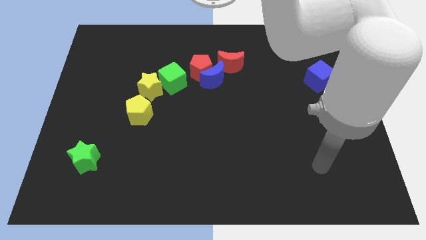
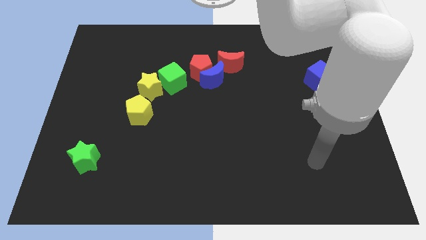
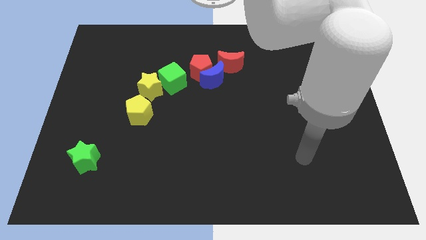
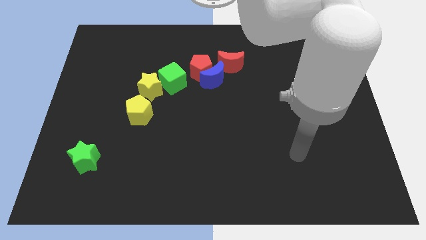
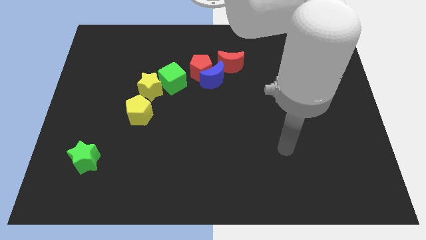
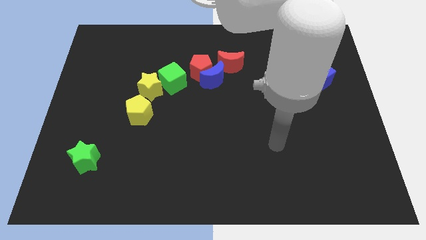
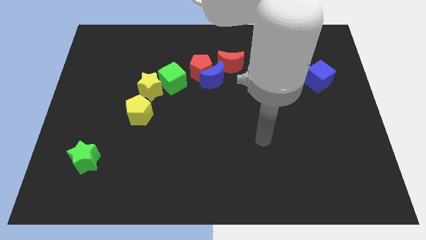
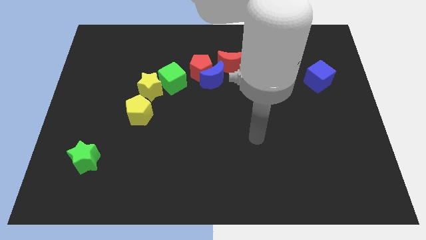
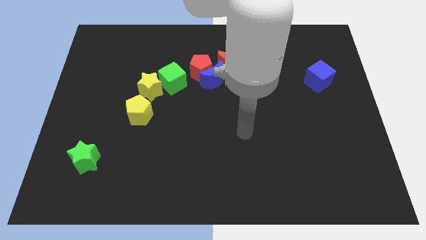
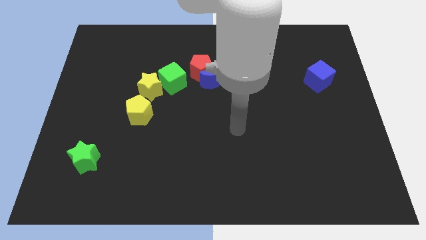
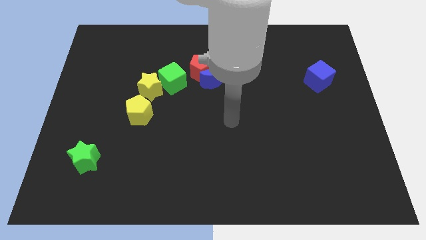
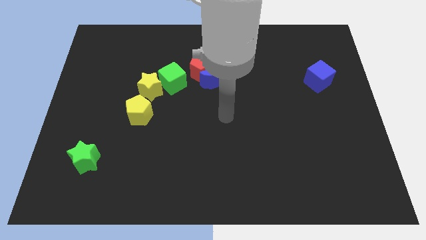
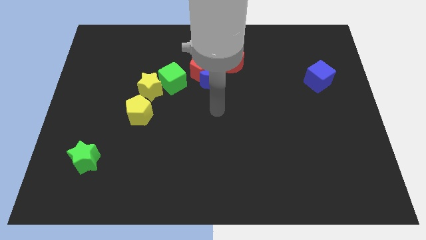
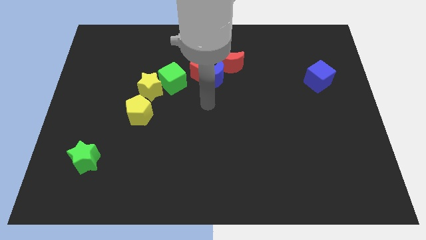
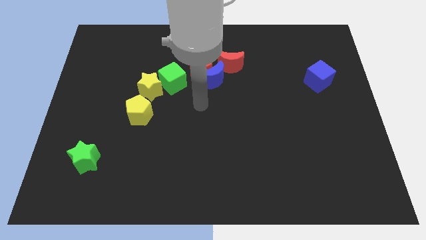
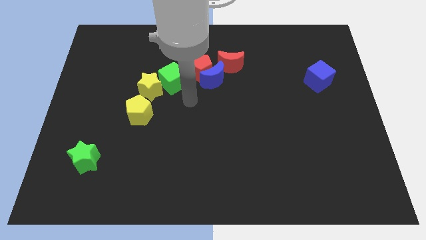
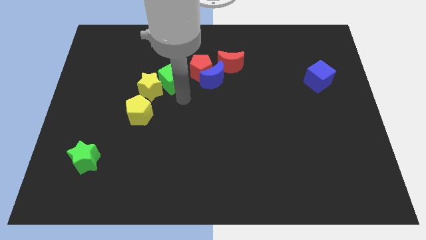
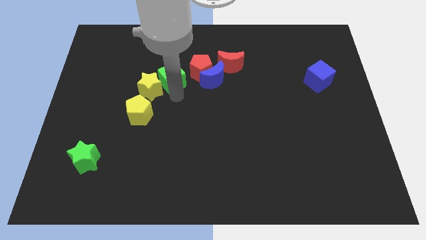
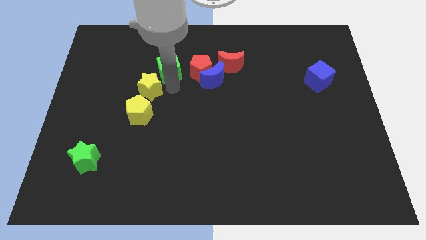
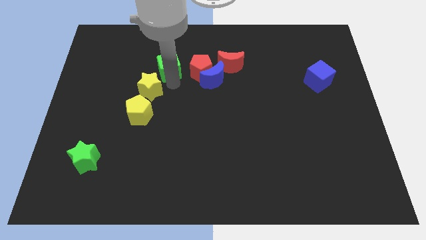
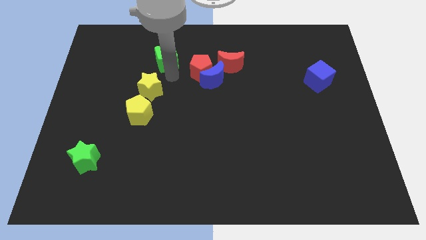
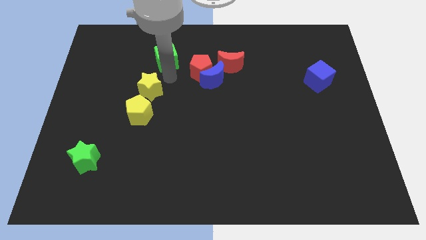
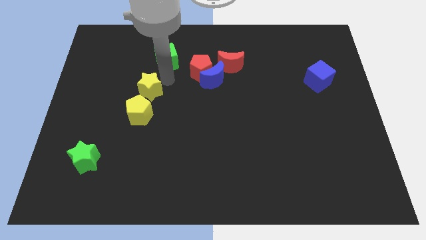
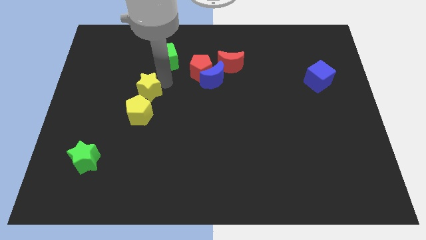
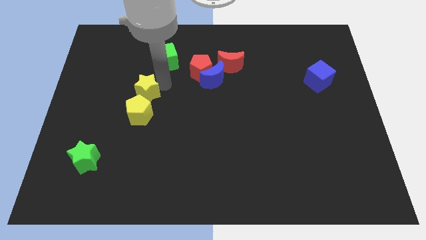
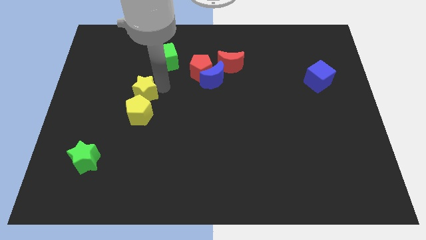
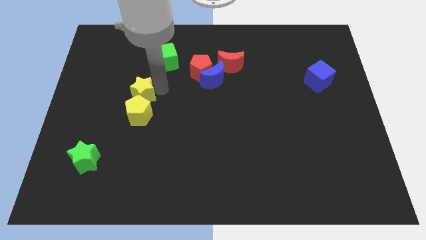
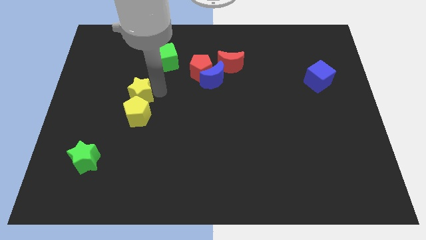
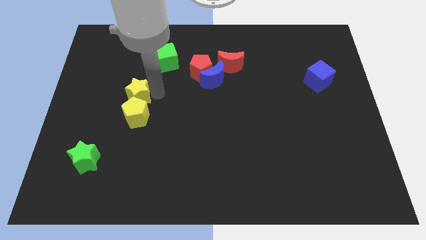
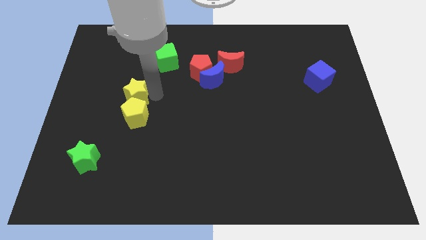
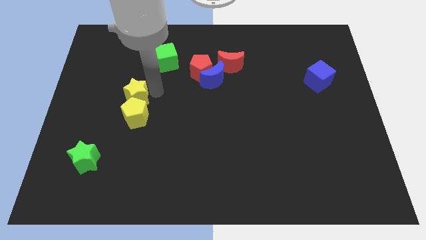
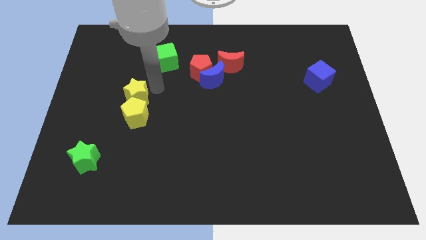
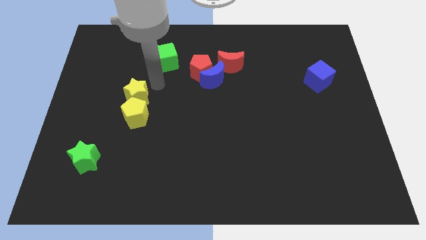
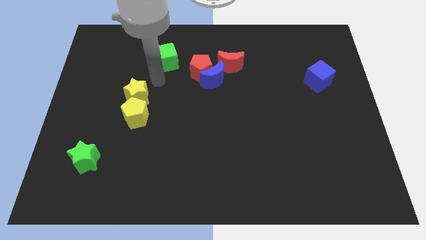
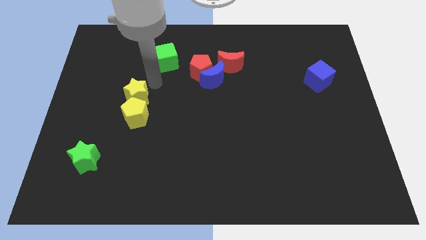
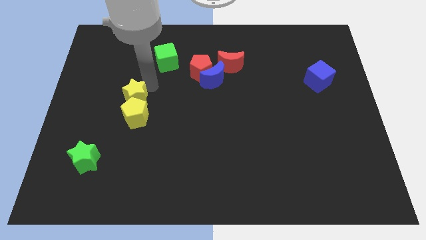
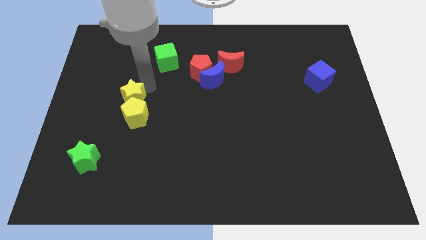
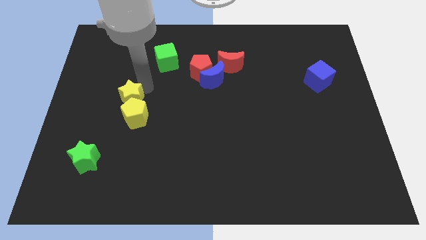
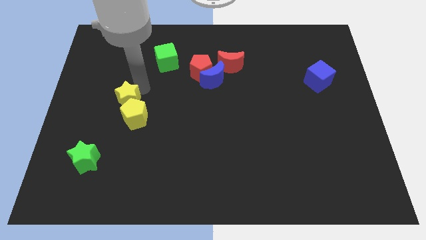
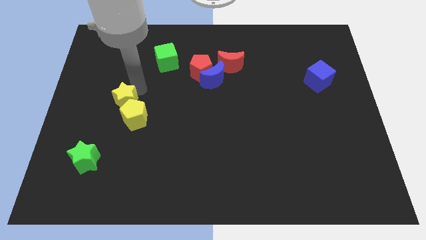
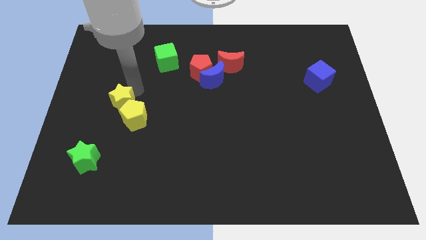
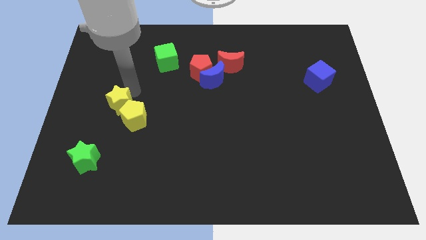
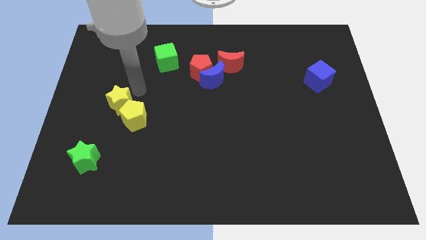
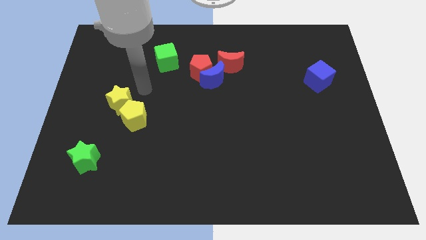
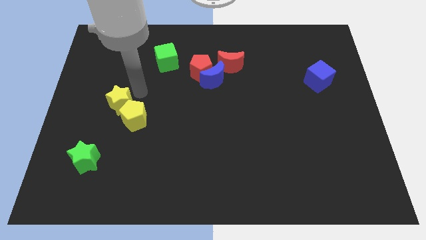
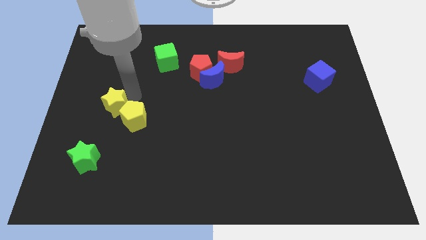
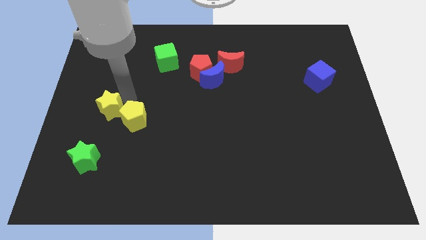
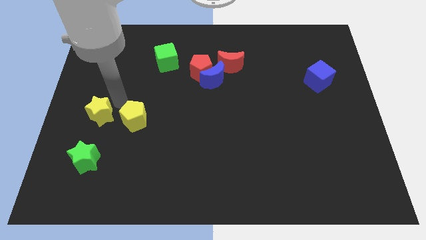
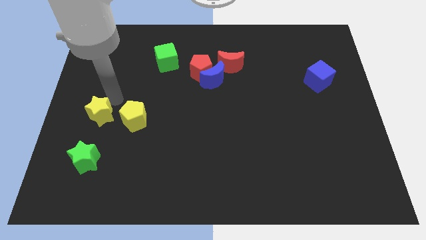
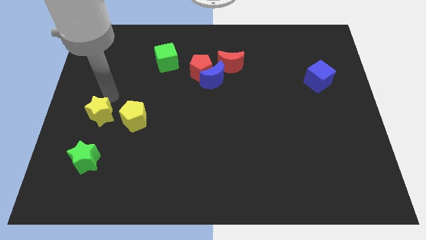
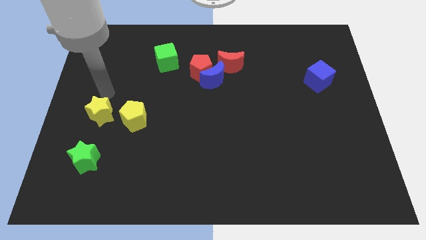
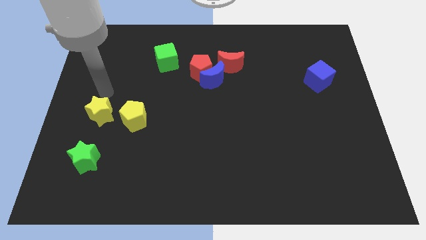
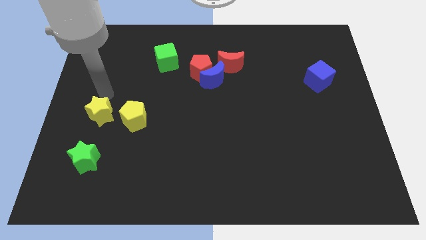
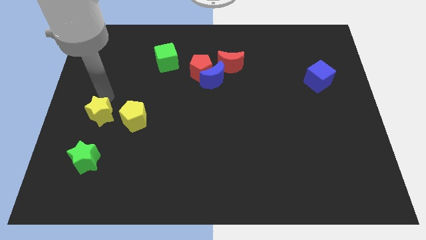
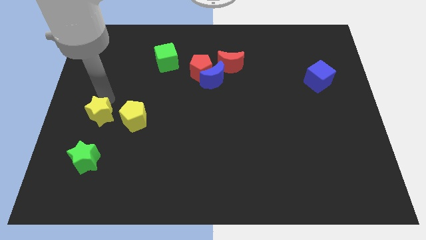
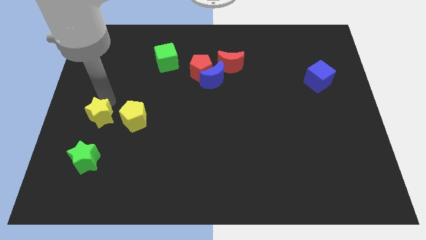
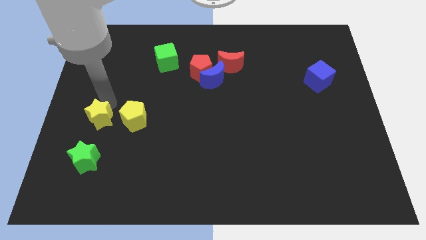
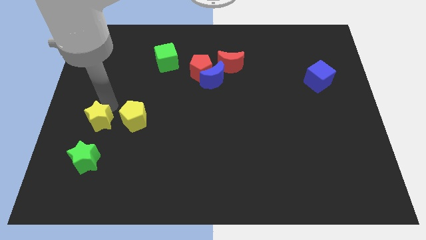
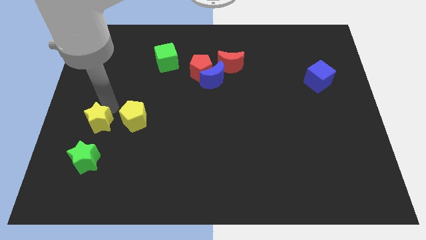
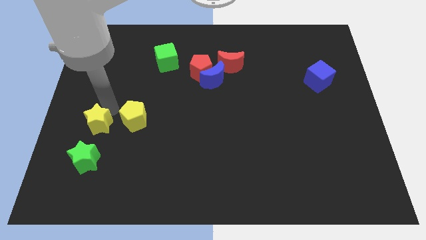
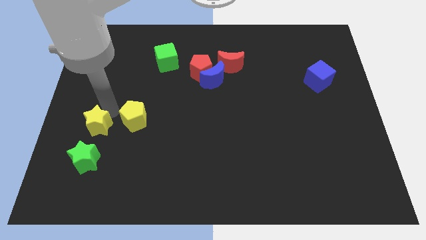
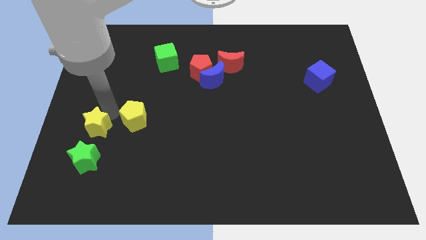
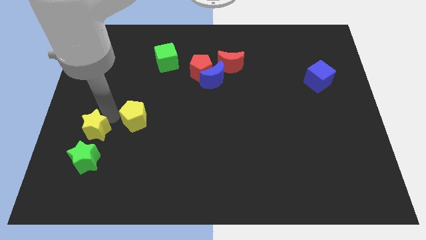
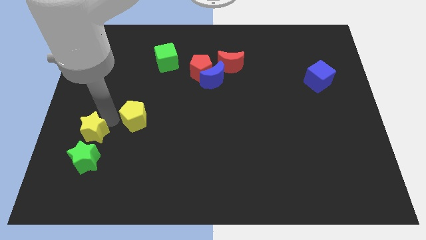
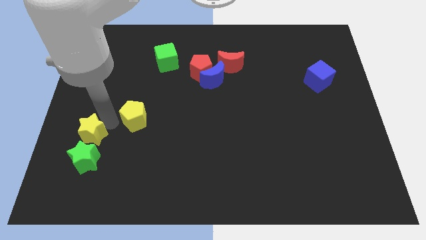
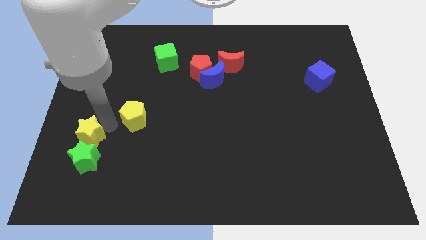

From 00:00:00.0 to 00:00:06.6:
put the yellow star next to the green star

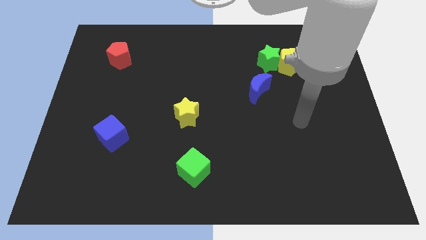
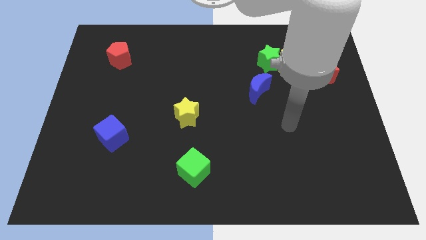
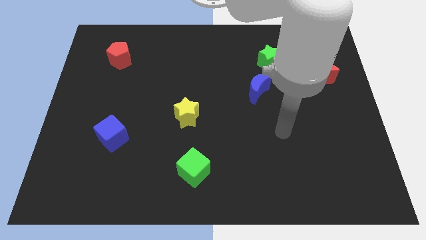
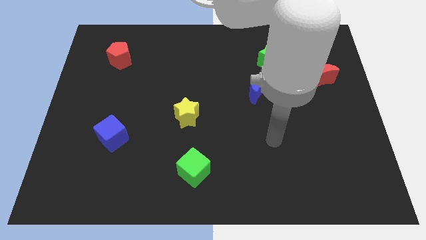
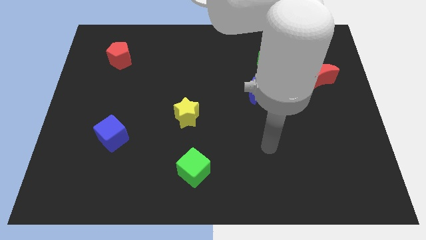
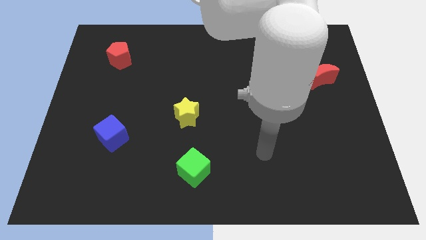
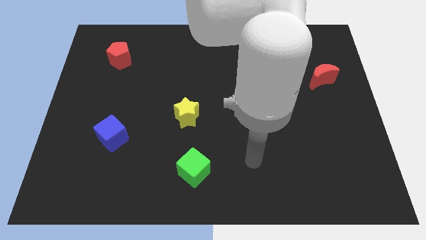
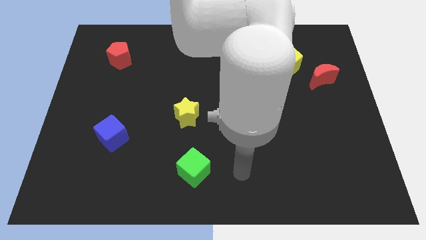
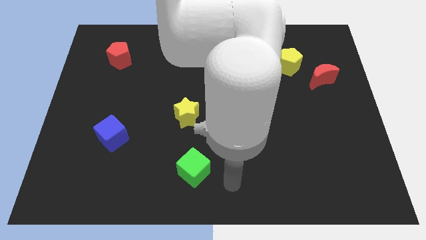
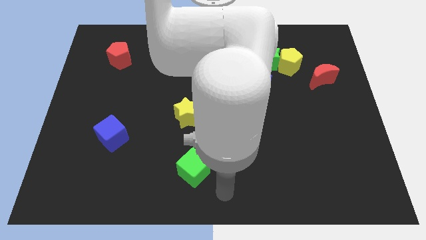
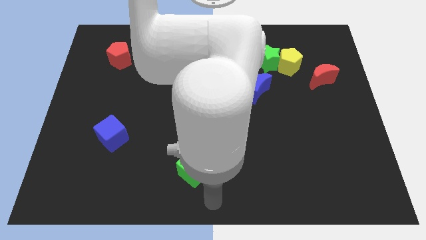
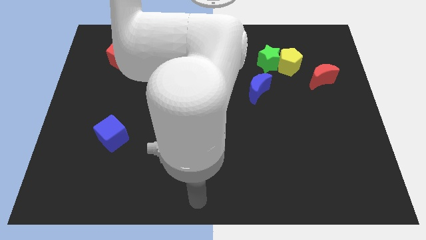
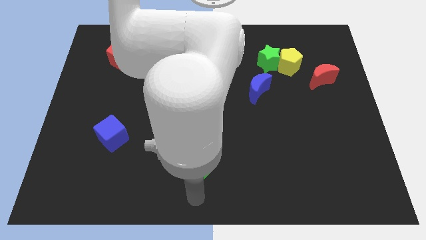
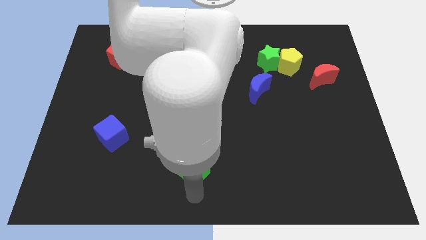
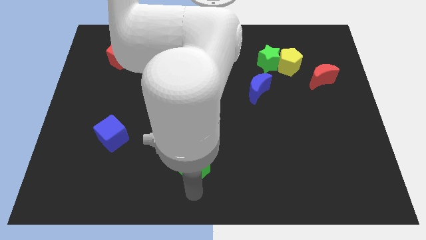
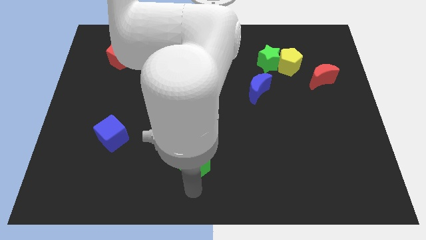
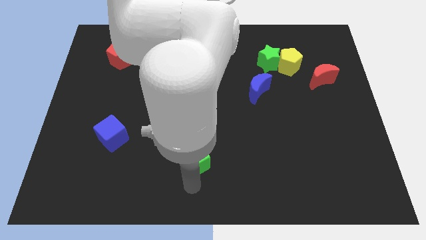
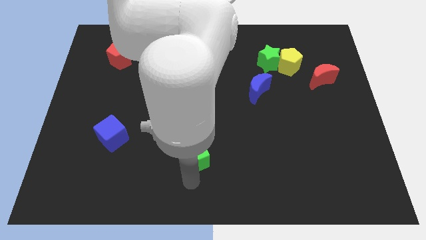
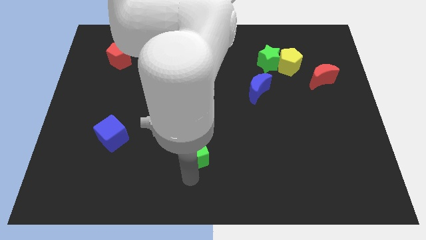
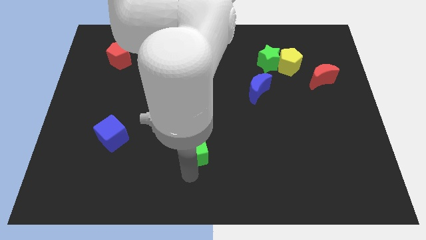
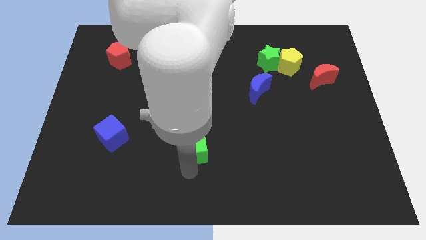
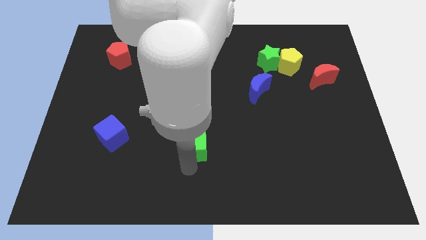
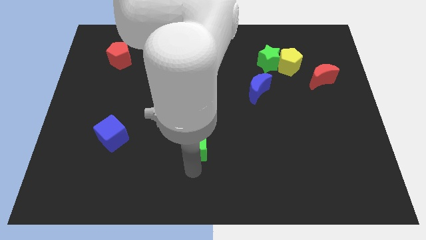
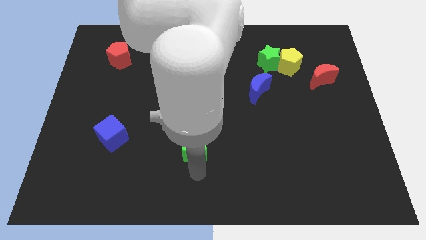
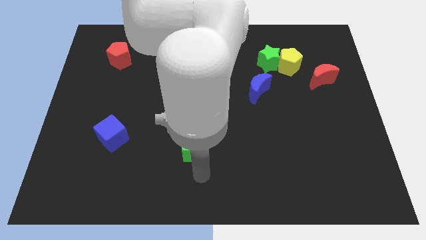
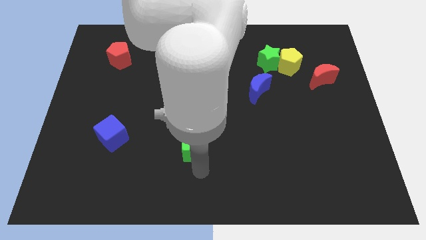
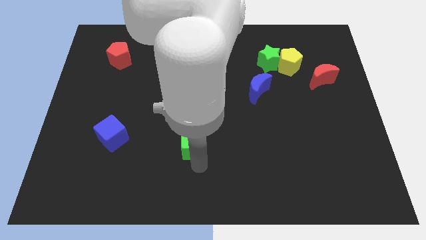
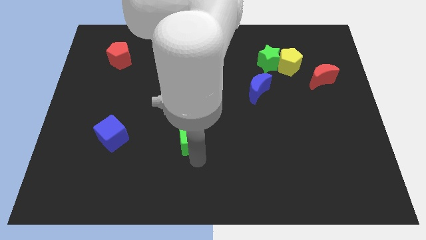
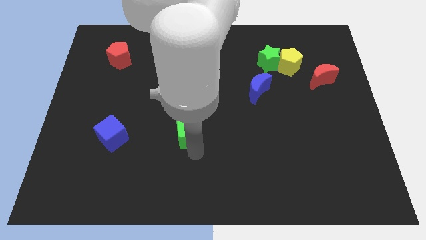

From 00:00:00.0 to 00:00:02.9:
slide the green cube towards the yellow star
